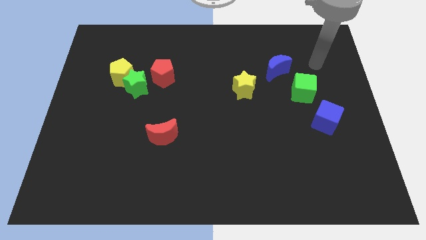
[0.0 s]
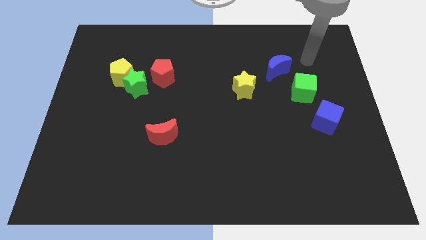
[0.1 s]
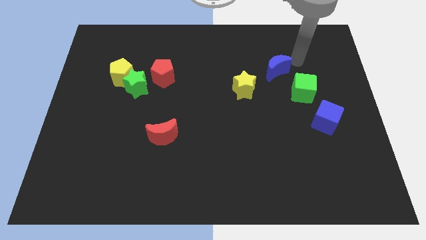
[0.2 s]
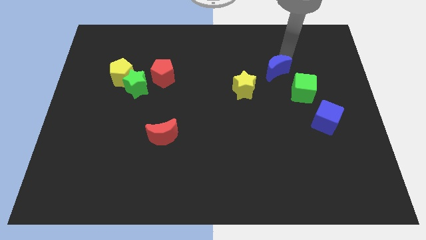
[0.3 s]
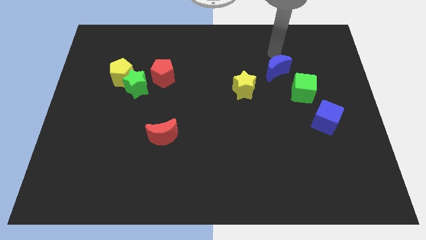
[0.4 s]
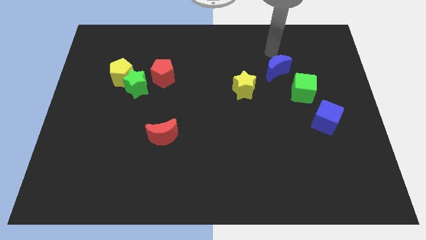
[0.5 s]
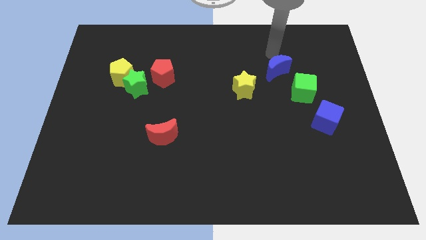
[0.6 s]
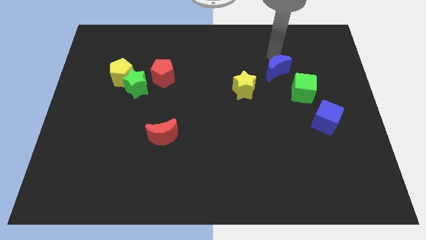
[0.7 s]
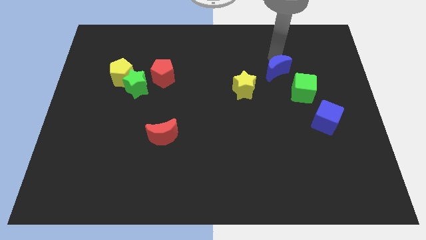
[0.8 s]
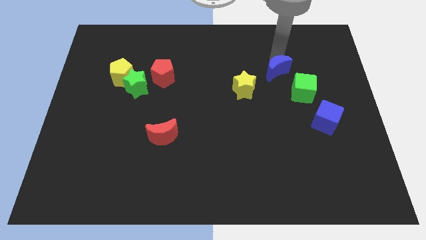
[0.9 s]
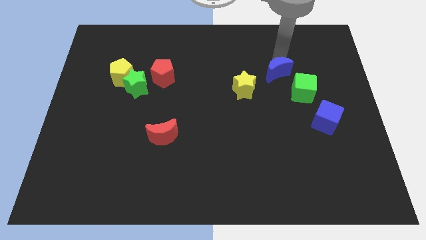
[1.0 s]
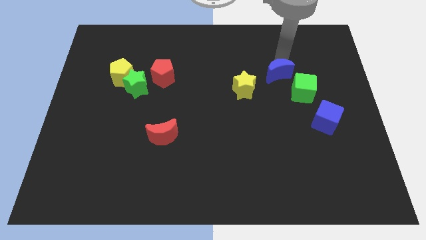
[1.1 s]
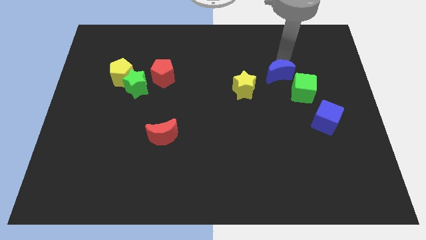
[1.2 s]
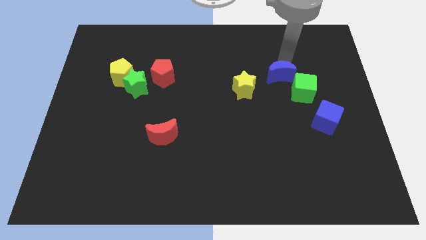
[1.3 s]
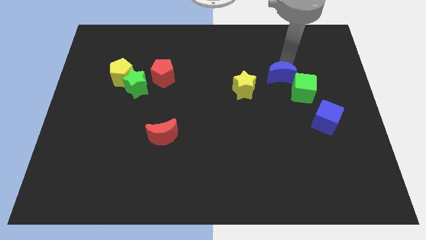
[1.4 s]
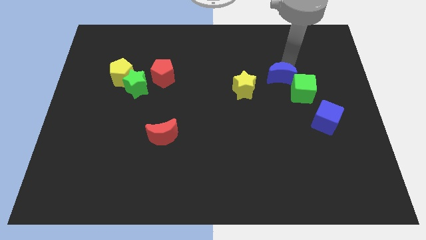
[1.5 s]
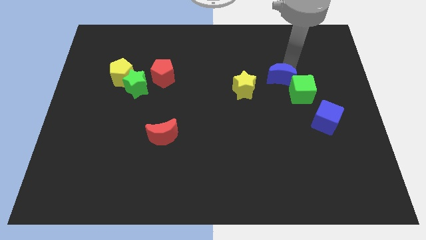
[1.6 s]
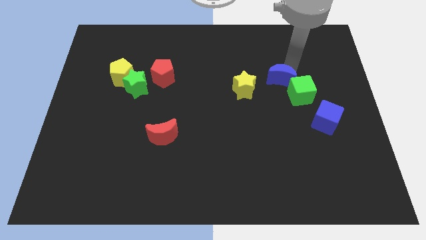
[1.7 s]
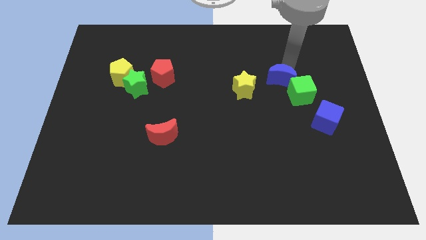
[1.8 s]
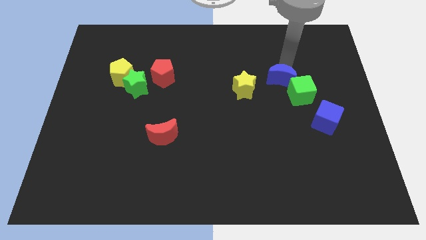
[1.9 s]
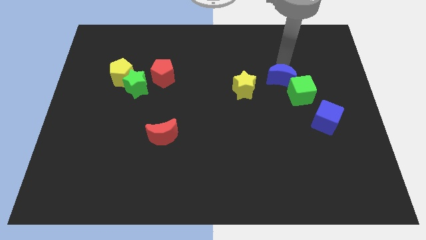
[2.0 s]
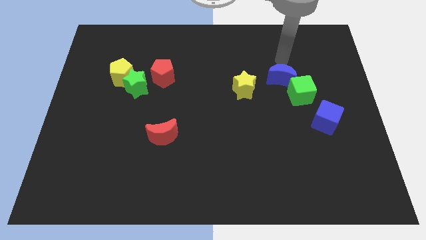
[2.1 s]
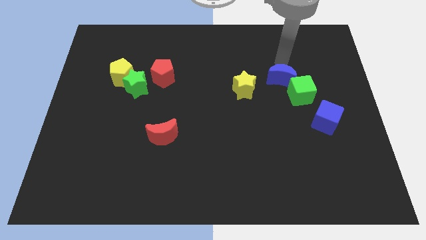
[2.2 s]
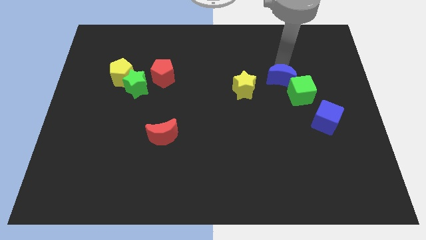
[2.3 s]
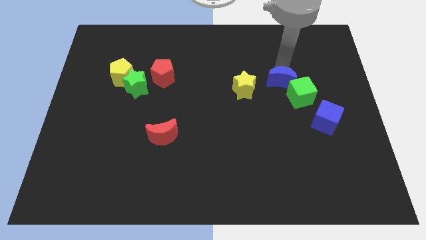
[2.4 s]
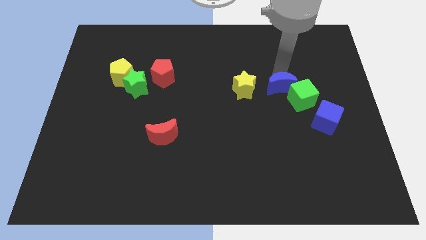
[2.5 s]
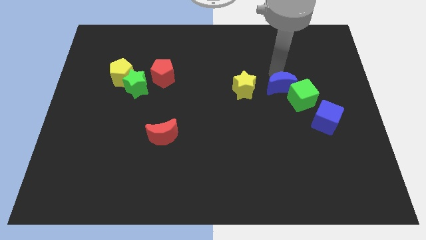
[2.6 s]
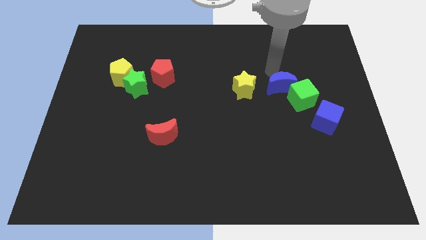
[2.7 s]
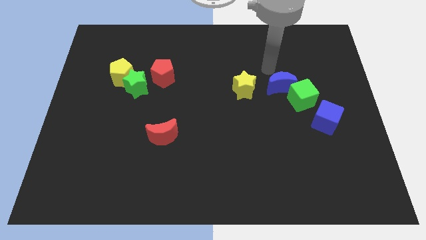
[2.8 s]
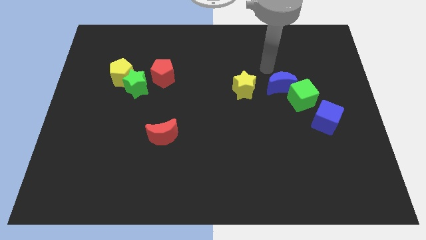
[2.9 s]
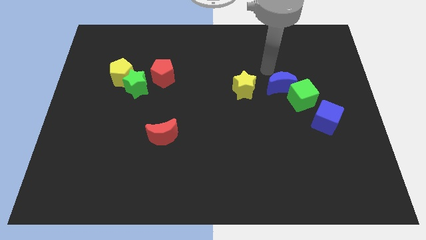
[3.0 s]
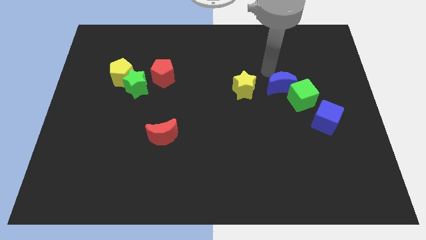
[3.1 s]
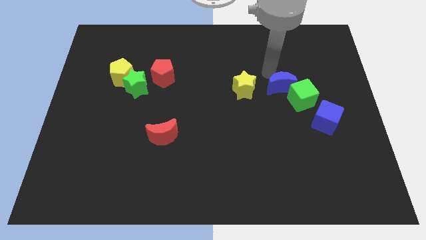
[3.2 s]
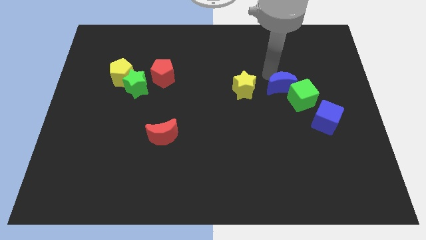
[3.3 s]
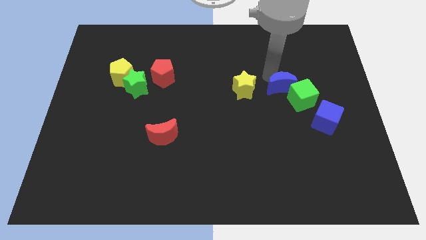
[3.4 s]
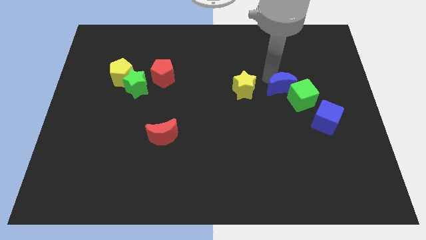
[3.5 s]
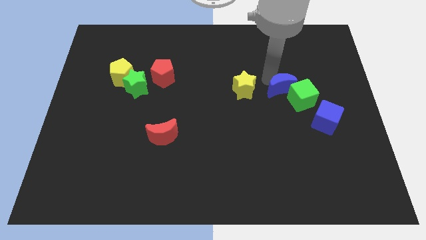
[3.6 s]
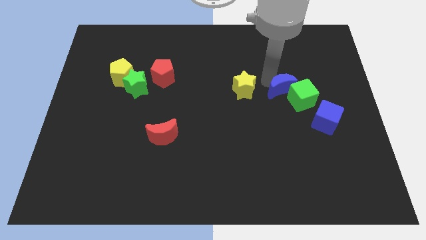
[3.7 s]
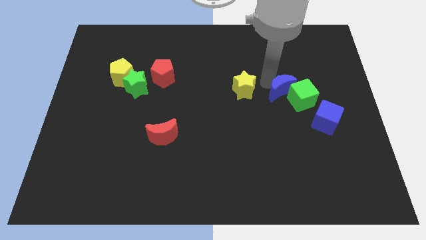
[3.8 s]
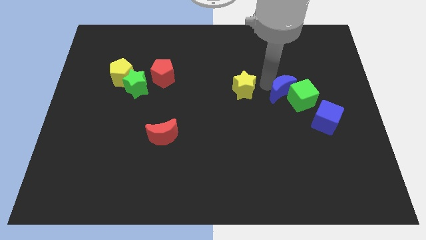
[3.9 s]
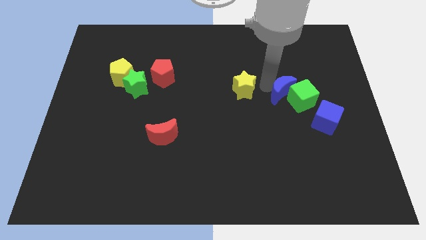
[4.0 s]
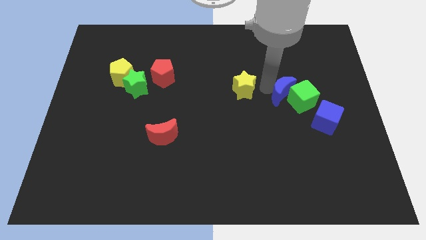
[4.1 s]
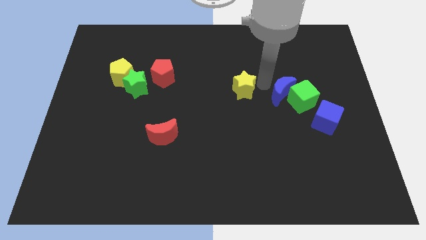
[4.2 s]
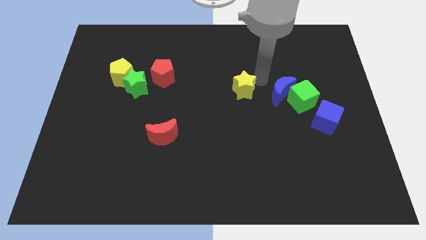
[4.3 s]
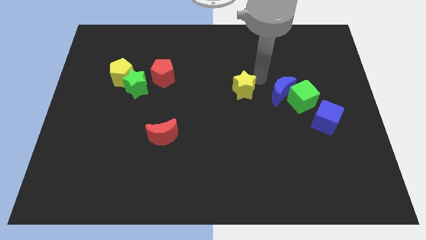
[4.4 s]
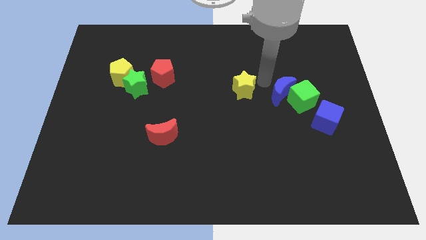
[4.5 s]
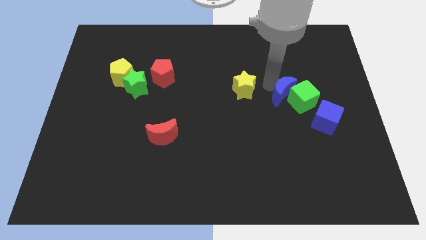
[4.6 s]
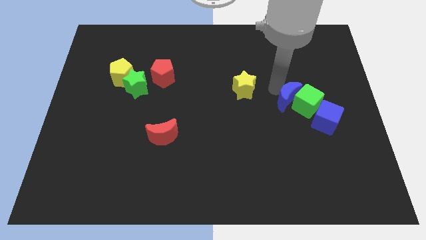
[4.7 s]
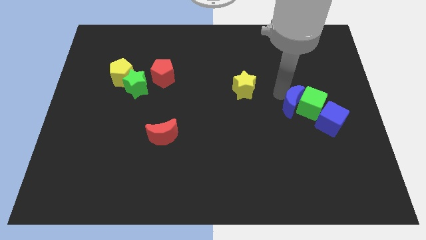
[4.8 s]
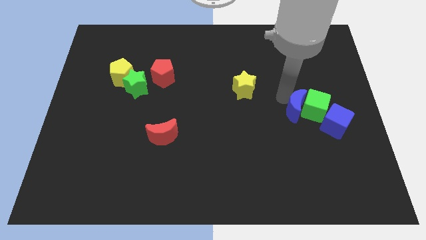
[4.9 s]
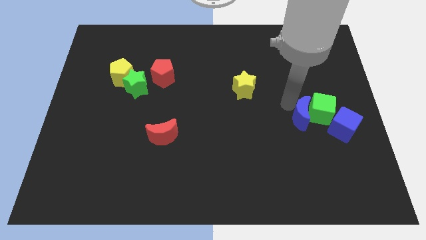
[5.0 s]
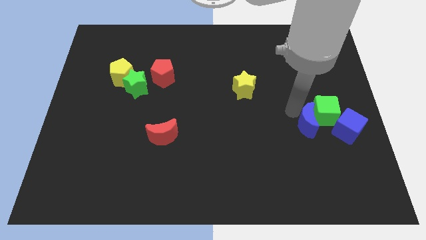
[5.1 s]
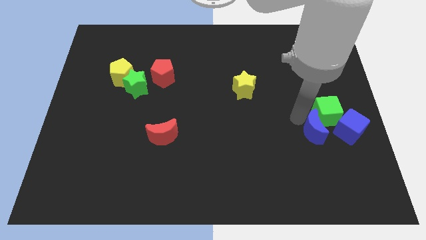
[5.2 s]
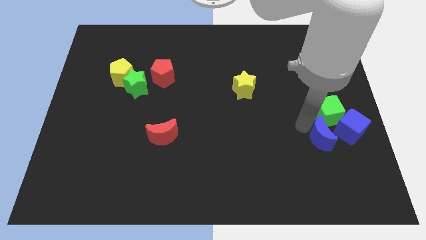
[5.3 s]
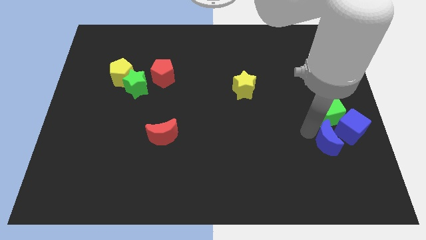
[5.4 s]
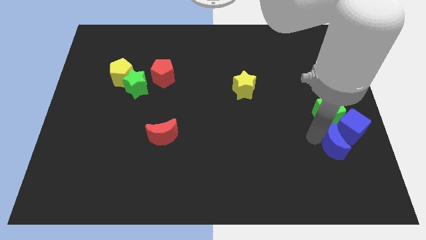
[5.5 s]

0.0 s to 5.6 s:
move the blue moon towards the blue cube

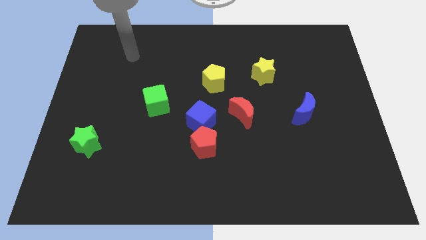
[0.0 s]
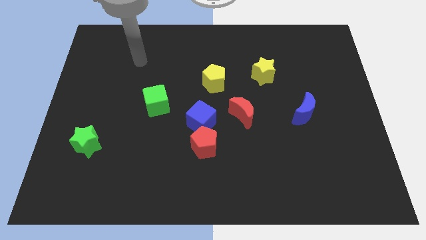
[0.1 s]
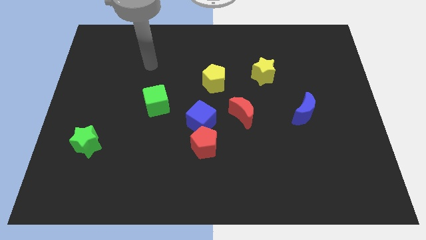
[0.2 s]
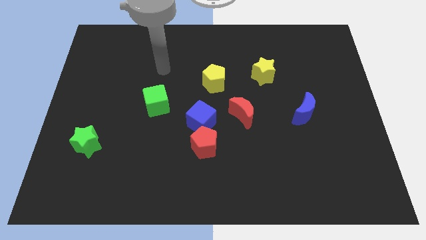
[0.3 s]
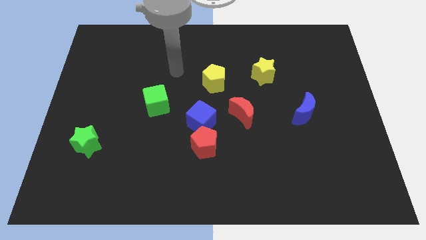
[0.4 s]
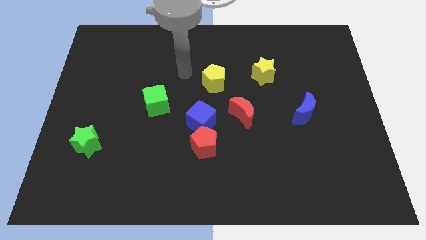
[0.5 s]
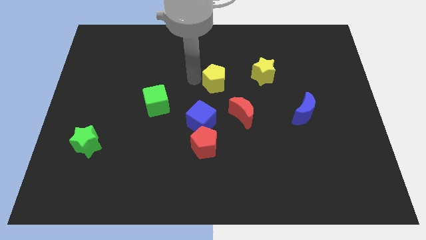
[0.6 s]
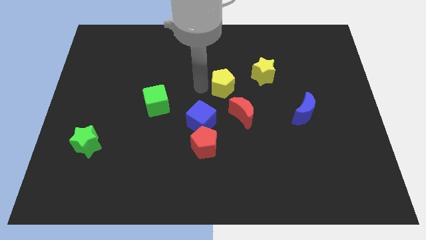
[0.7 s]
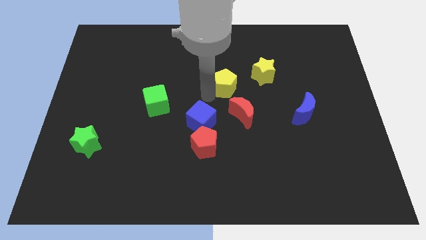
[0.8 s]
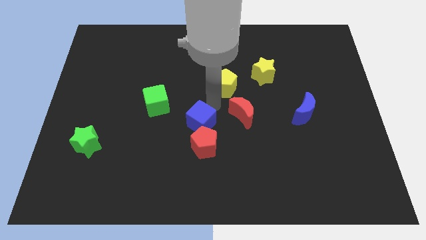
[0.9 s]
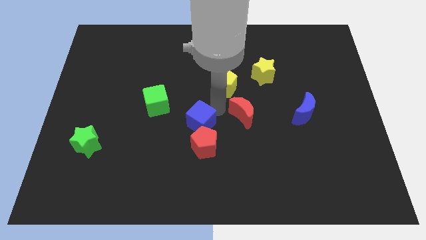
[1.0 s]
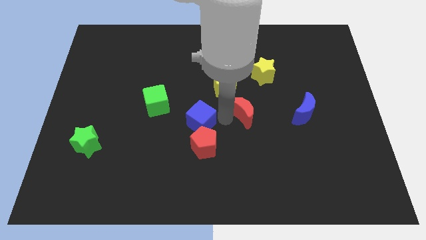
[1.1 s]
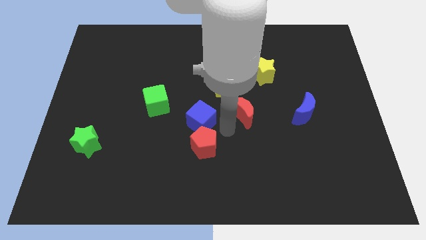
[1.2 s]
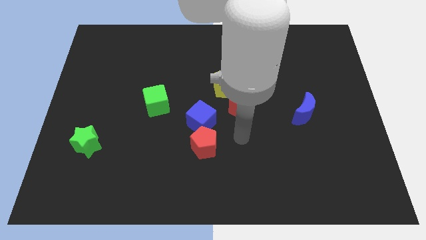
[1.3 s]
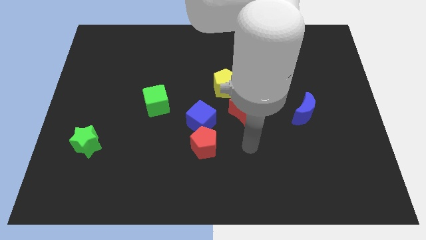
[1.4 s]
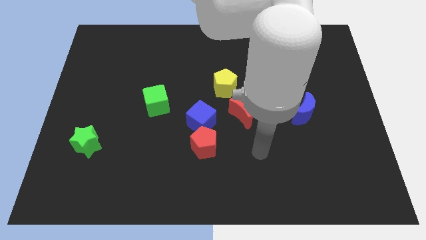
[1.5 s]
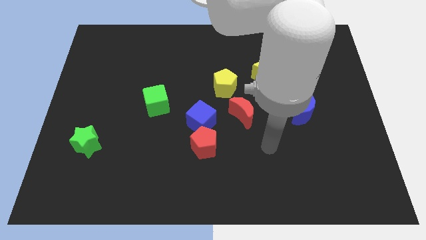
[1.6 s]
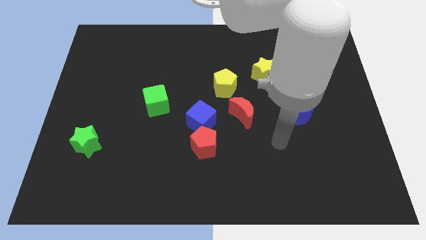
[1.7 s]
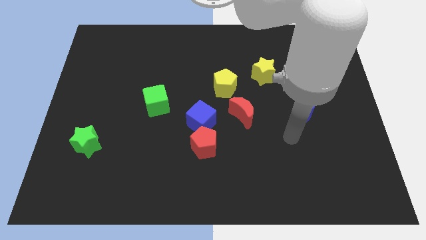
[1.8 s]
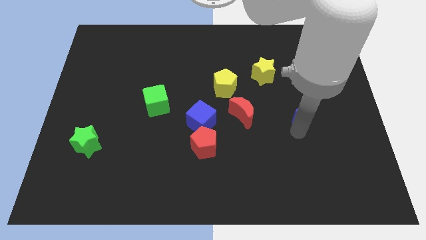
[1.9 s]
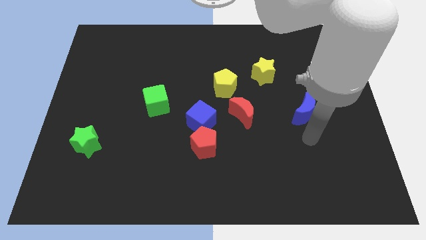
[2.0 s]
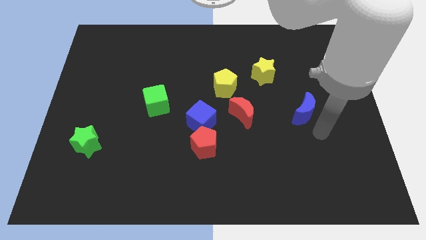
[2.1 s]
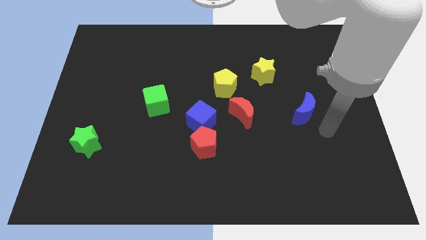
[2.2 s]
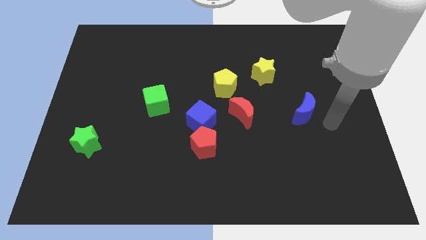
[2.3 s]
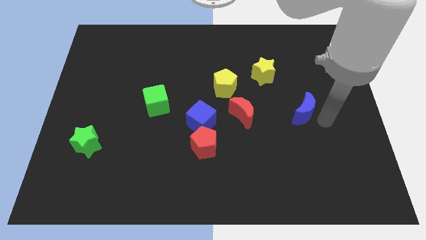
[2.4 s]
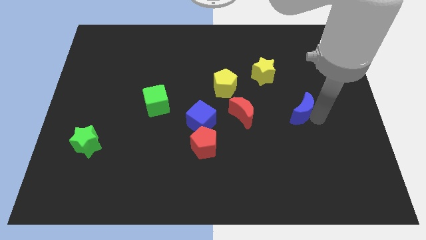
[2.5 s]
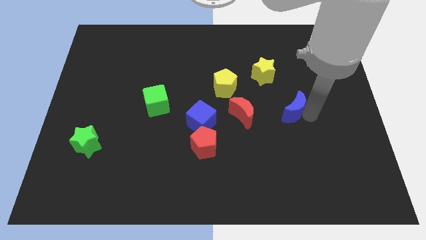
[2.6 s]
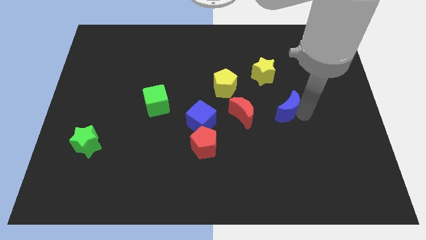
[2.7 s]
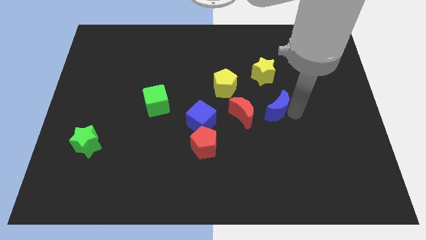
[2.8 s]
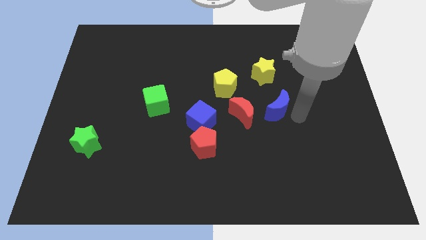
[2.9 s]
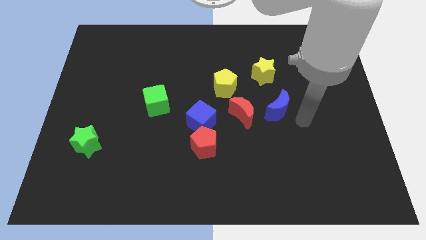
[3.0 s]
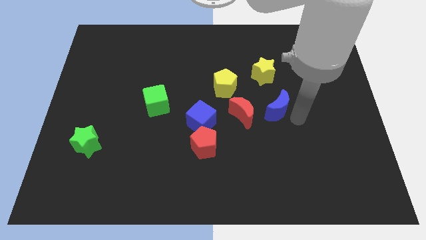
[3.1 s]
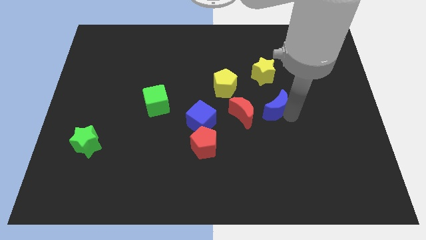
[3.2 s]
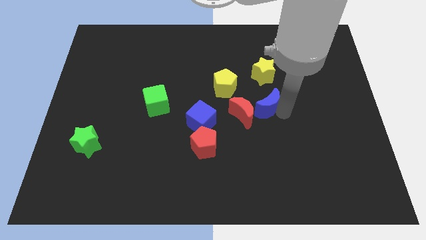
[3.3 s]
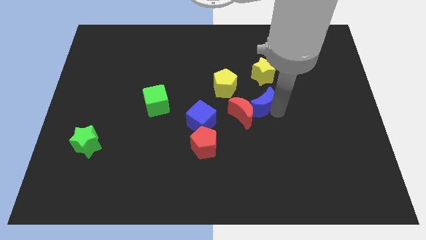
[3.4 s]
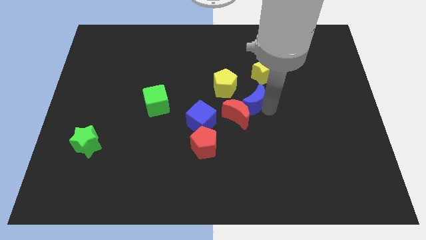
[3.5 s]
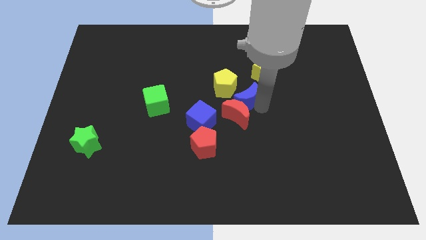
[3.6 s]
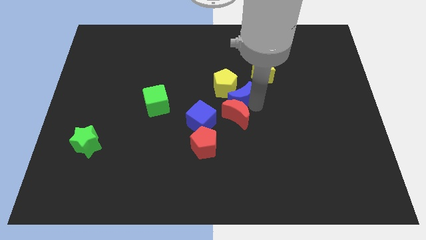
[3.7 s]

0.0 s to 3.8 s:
slide the blue moon next to the yellow pentagon
